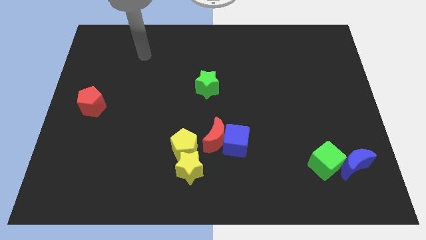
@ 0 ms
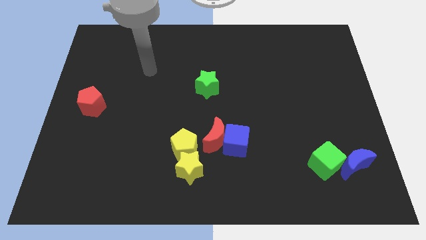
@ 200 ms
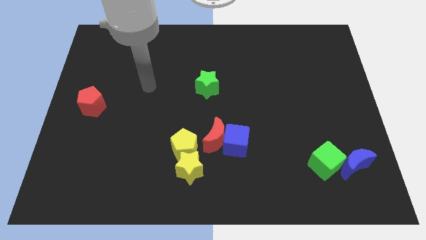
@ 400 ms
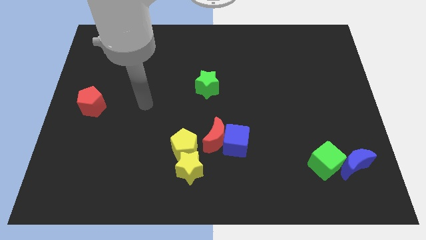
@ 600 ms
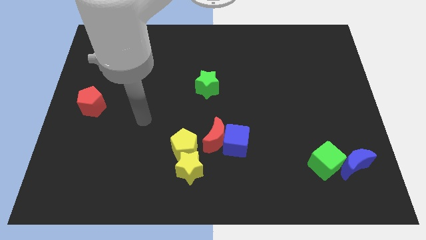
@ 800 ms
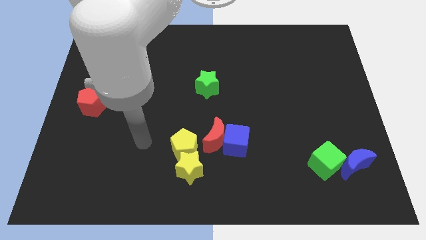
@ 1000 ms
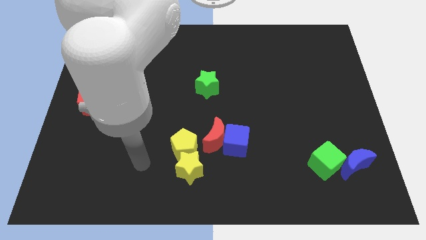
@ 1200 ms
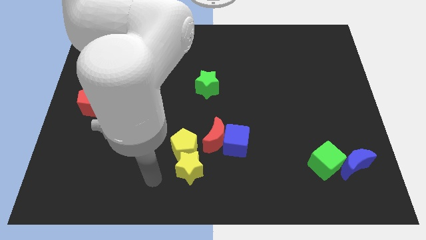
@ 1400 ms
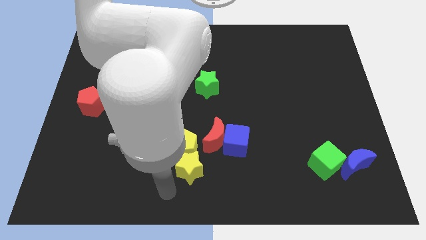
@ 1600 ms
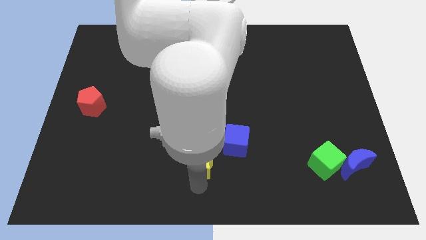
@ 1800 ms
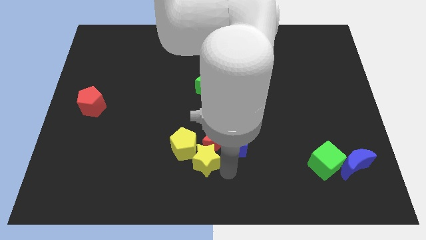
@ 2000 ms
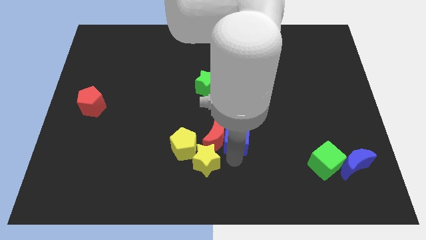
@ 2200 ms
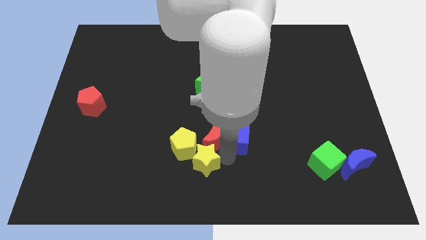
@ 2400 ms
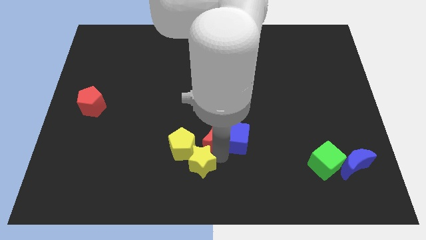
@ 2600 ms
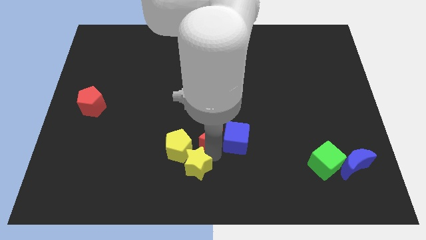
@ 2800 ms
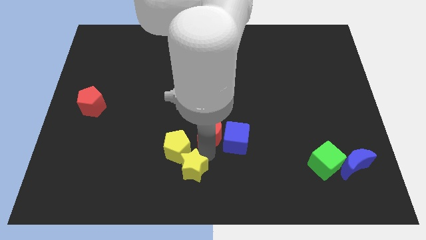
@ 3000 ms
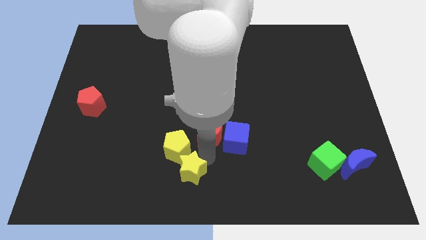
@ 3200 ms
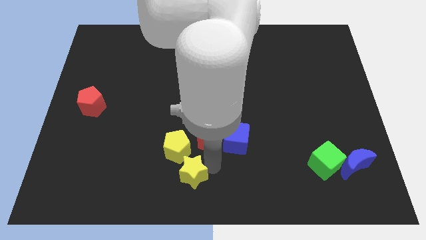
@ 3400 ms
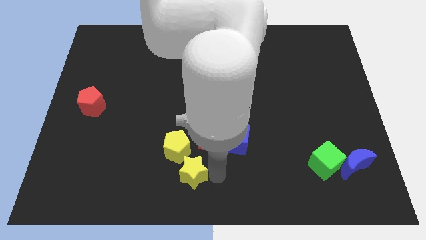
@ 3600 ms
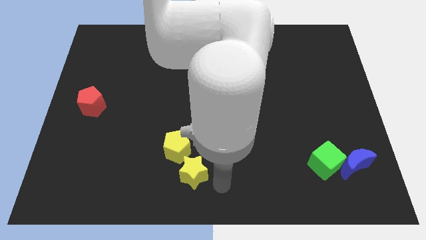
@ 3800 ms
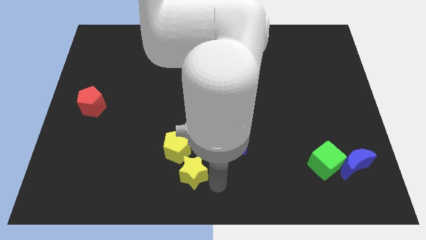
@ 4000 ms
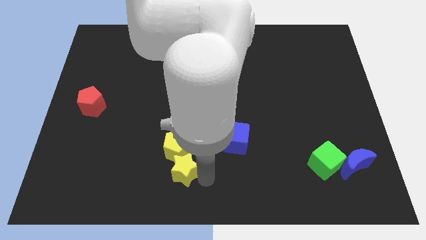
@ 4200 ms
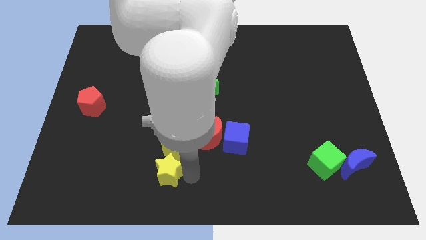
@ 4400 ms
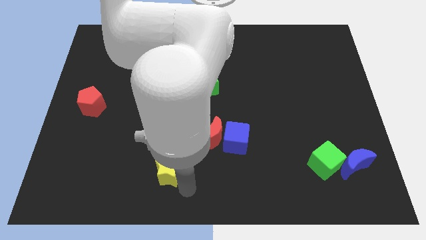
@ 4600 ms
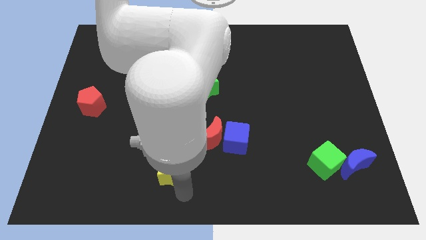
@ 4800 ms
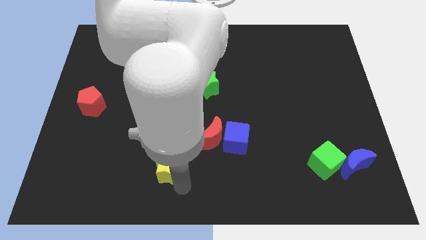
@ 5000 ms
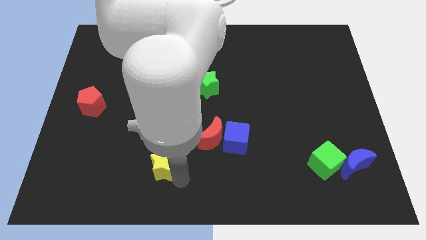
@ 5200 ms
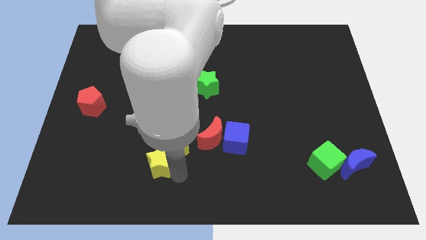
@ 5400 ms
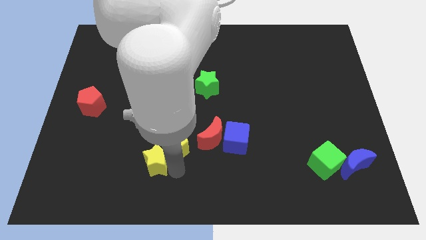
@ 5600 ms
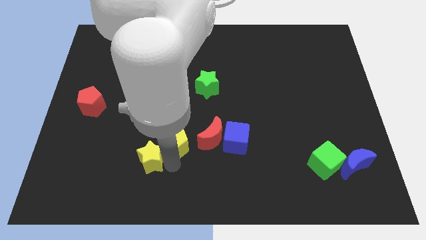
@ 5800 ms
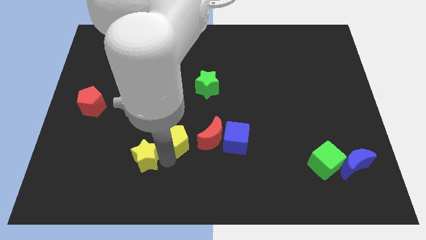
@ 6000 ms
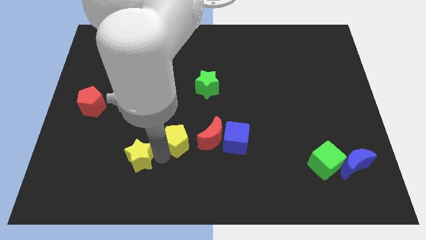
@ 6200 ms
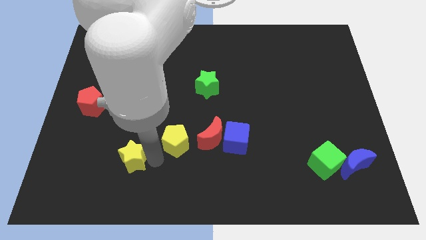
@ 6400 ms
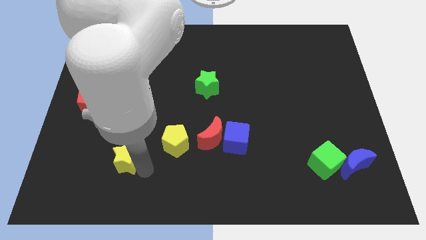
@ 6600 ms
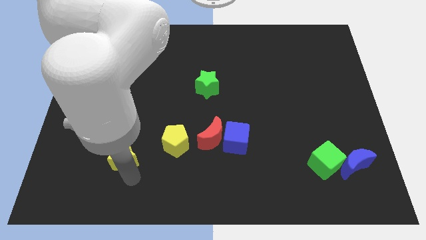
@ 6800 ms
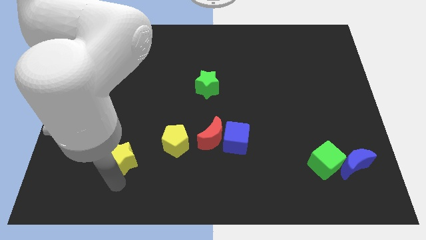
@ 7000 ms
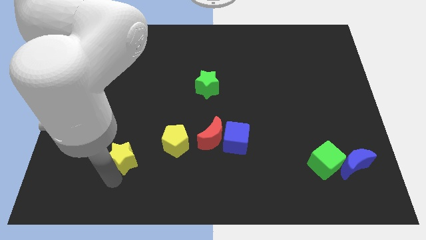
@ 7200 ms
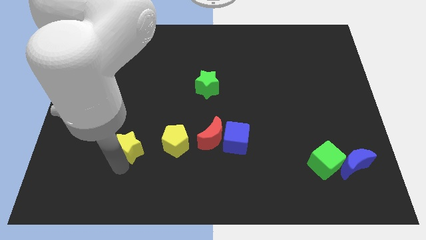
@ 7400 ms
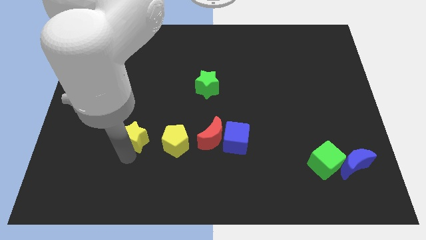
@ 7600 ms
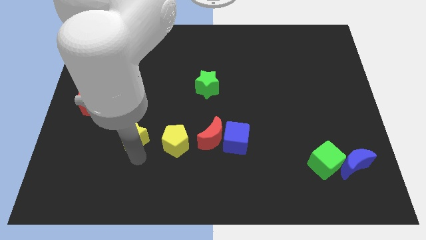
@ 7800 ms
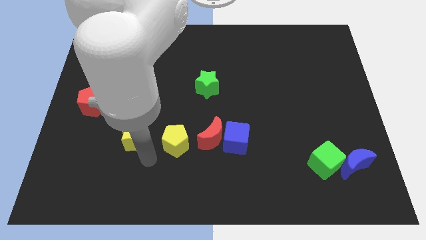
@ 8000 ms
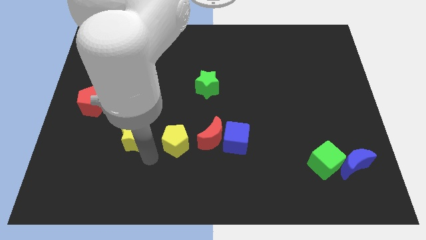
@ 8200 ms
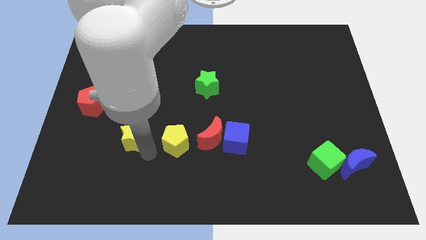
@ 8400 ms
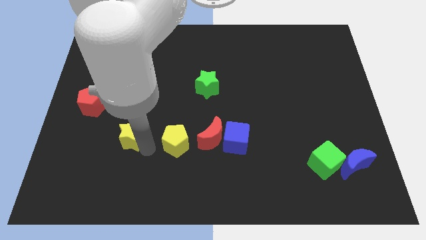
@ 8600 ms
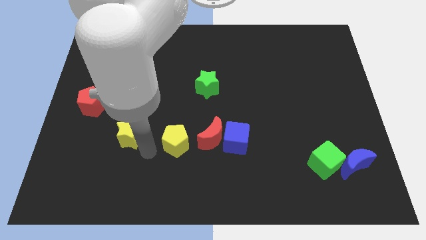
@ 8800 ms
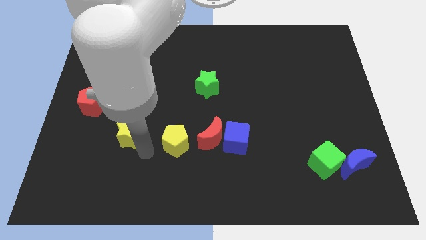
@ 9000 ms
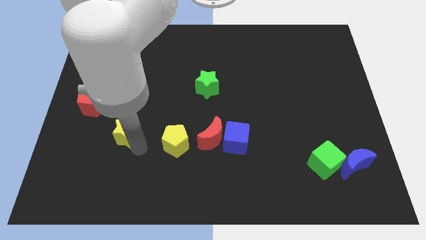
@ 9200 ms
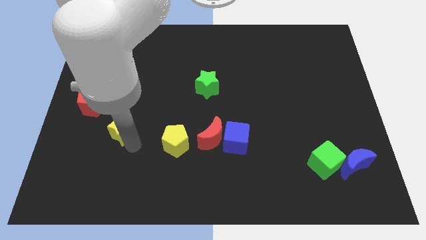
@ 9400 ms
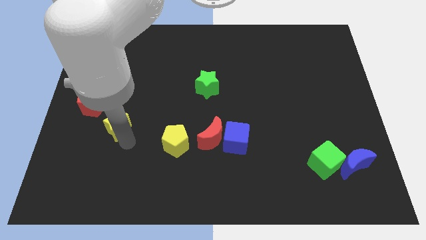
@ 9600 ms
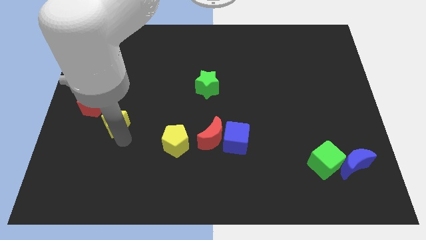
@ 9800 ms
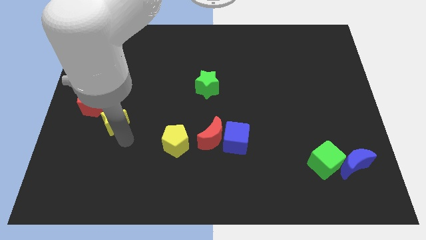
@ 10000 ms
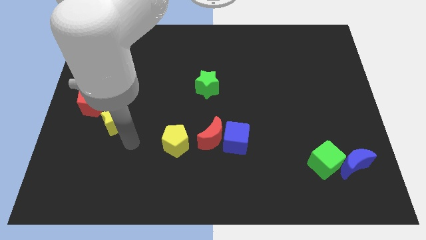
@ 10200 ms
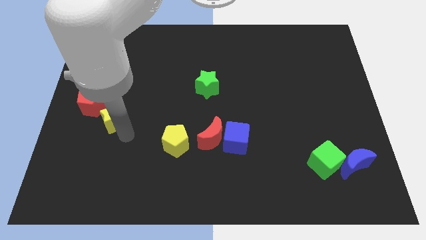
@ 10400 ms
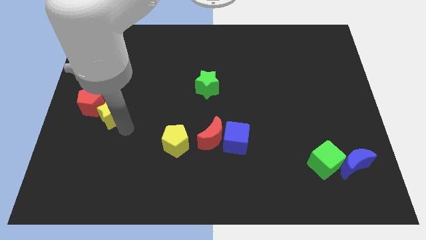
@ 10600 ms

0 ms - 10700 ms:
slide the yellow star close to the red pentagon

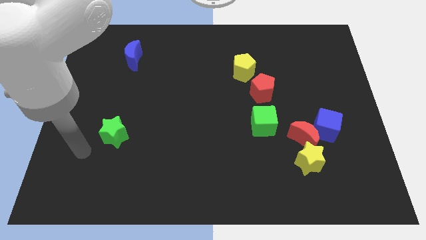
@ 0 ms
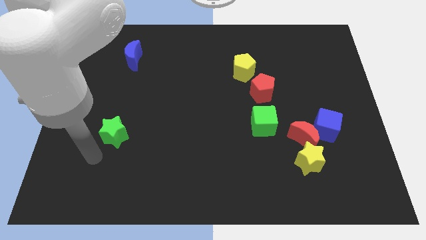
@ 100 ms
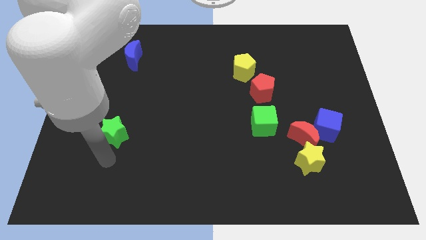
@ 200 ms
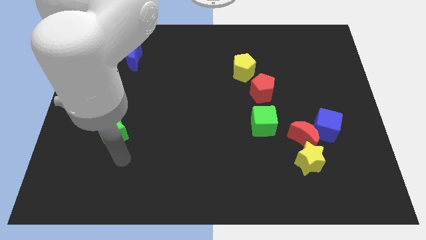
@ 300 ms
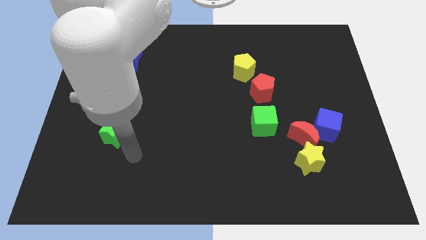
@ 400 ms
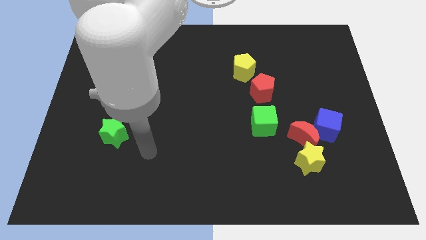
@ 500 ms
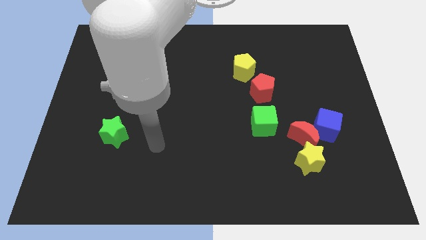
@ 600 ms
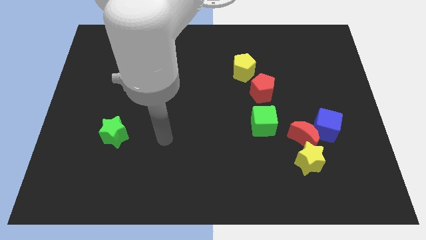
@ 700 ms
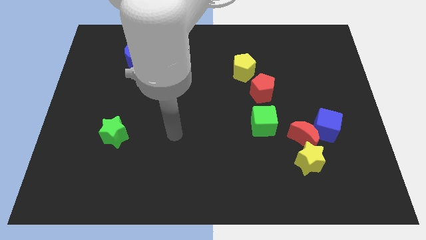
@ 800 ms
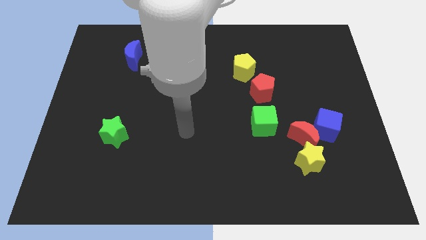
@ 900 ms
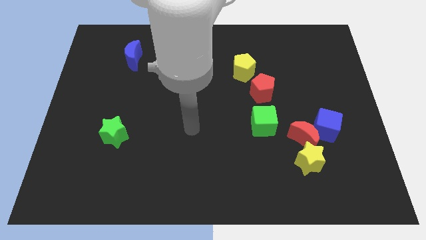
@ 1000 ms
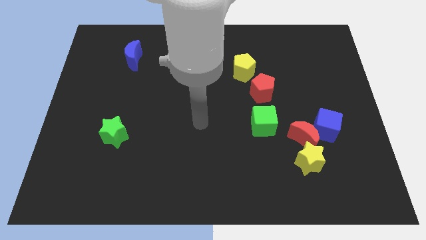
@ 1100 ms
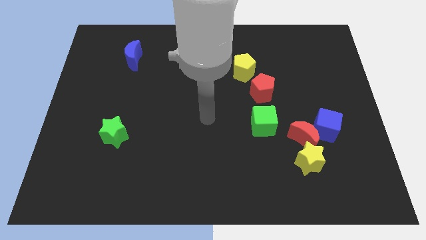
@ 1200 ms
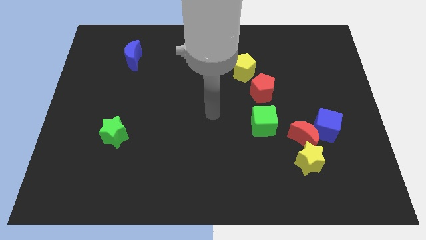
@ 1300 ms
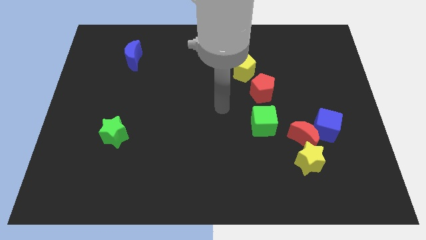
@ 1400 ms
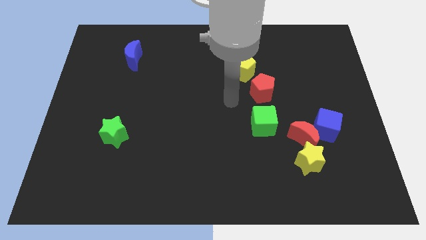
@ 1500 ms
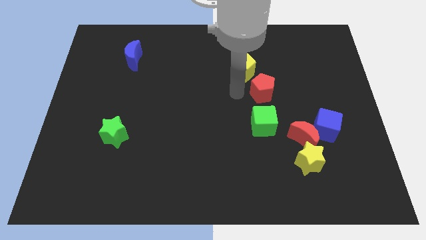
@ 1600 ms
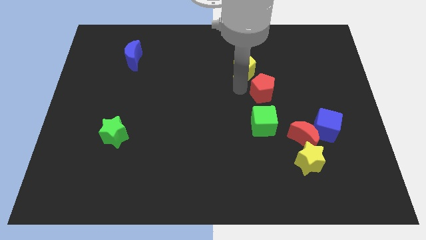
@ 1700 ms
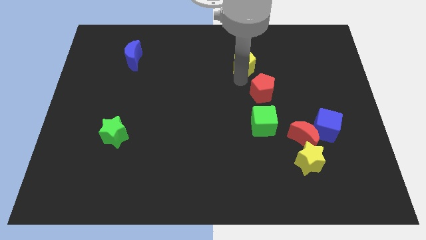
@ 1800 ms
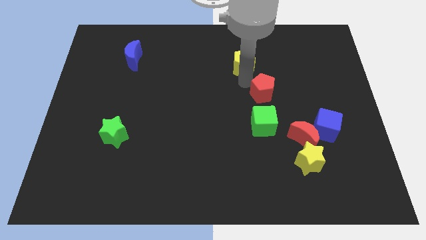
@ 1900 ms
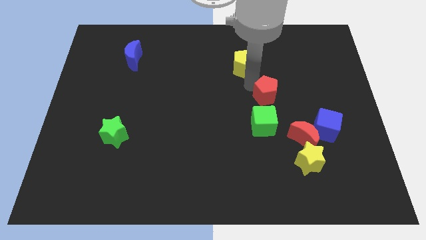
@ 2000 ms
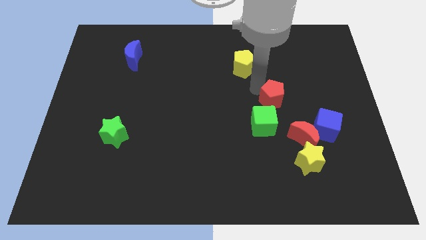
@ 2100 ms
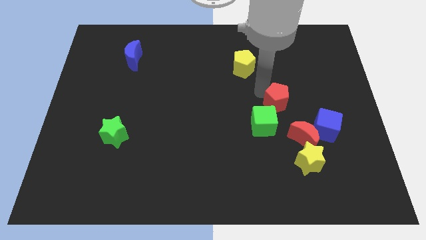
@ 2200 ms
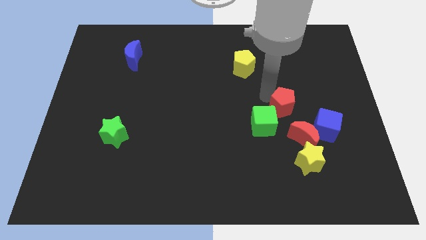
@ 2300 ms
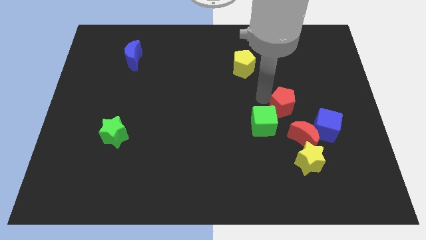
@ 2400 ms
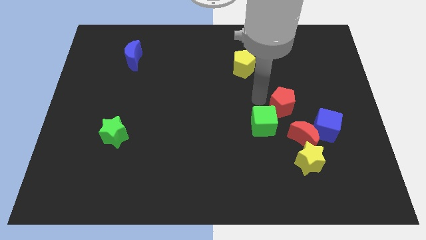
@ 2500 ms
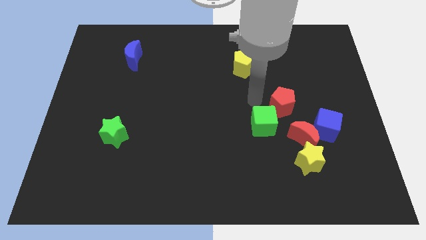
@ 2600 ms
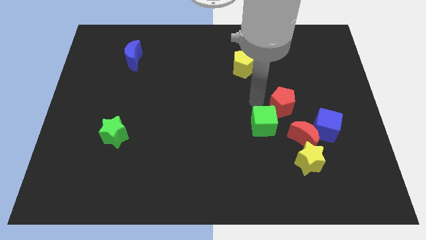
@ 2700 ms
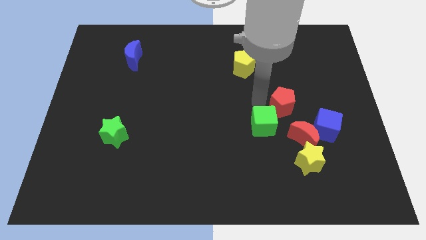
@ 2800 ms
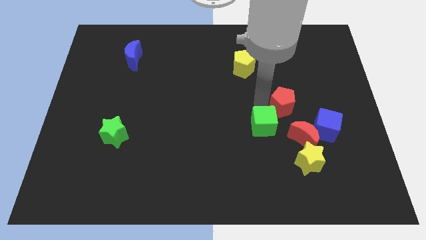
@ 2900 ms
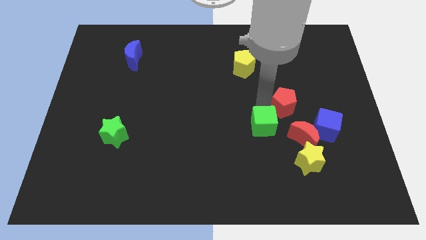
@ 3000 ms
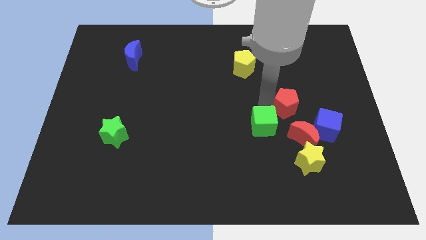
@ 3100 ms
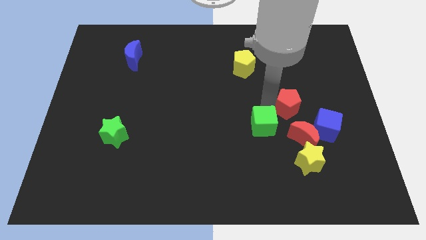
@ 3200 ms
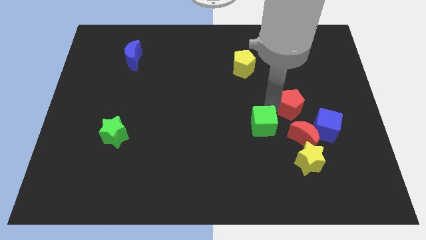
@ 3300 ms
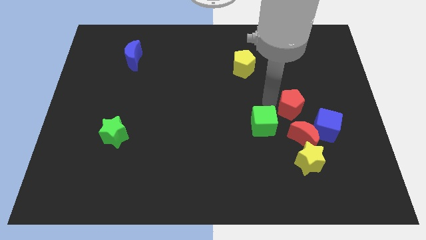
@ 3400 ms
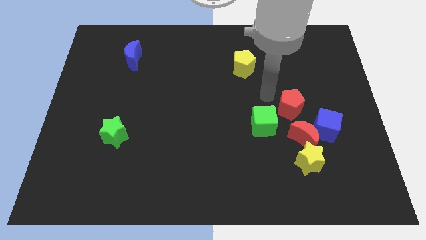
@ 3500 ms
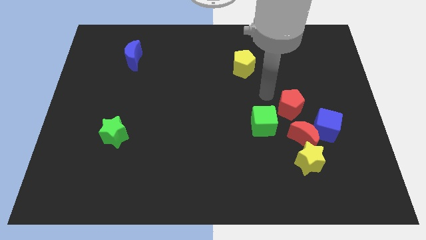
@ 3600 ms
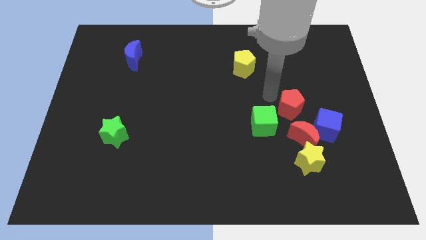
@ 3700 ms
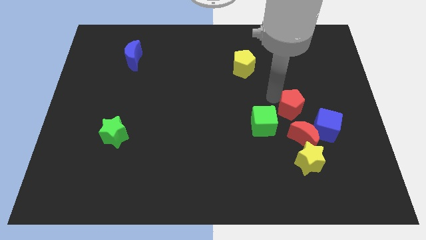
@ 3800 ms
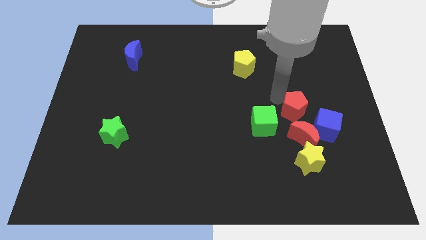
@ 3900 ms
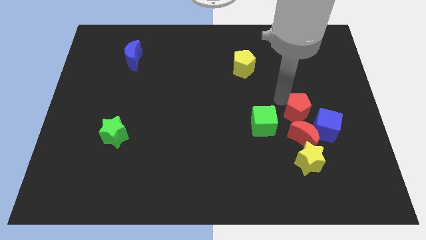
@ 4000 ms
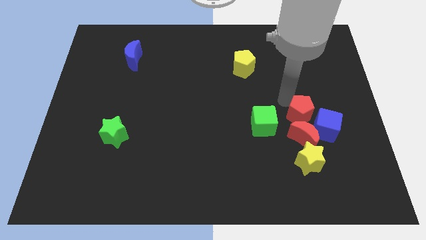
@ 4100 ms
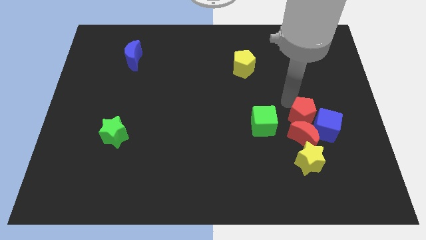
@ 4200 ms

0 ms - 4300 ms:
push the red pentagon towards the blue cube
